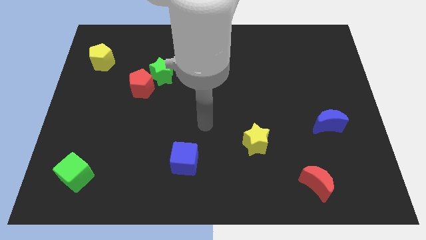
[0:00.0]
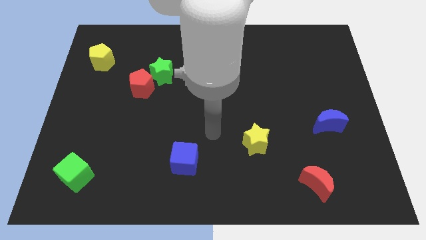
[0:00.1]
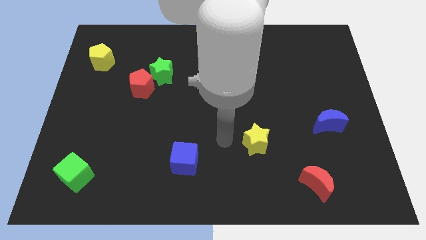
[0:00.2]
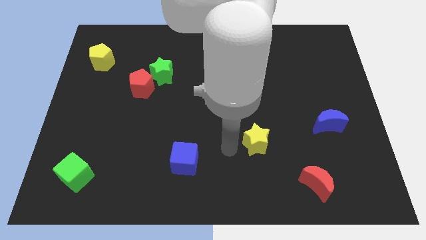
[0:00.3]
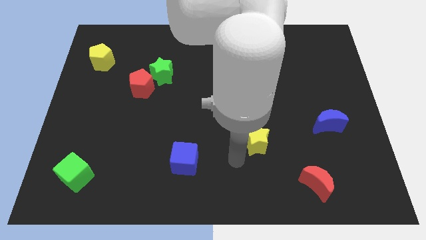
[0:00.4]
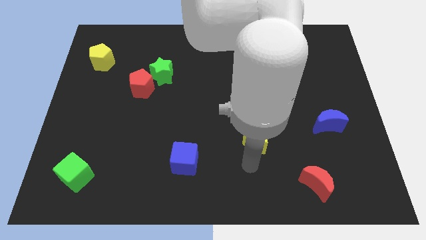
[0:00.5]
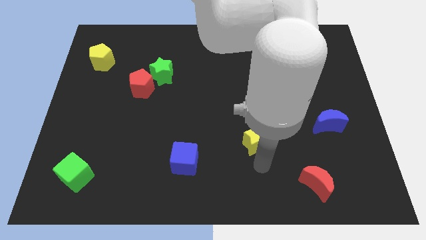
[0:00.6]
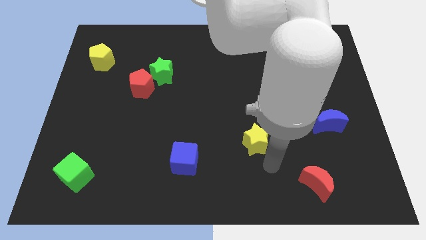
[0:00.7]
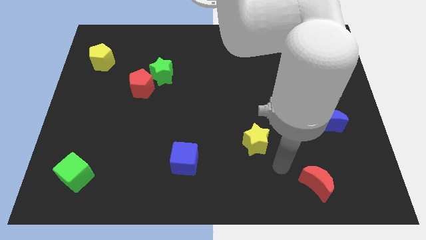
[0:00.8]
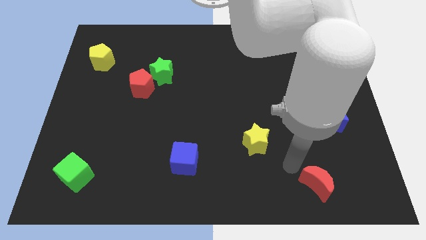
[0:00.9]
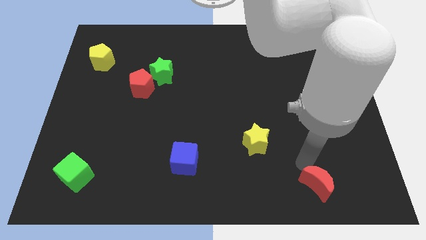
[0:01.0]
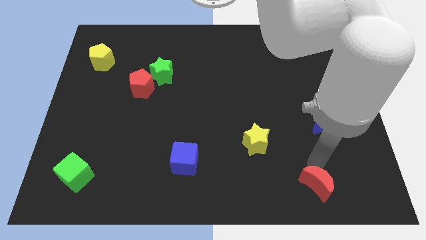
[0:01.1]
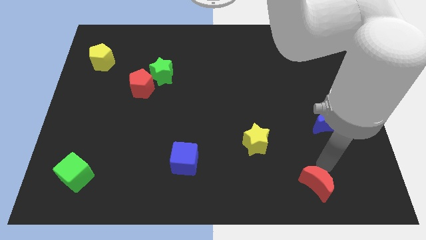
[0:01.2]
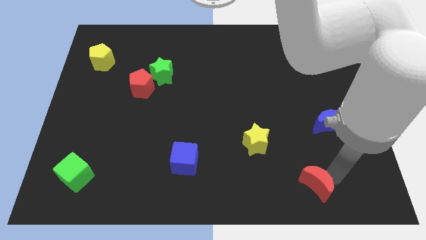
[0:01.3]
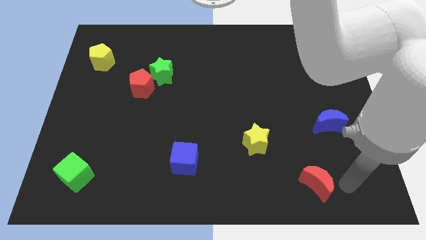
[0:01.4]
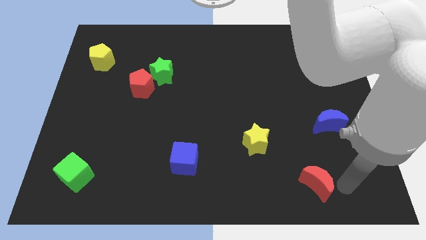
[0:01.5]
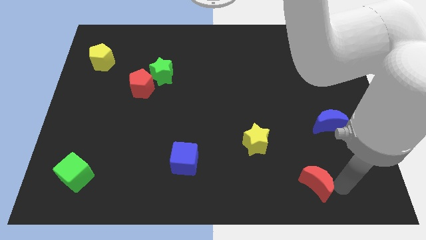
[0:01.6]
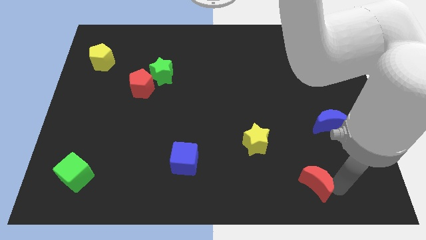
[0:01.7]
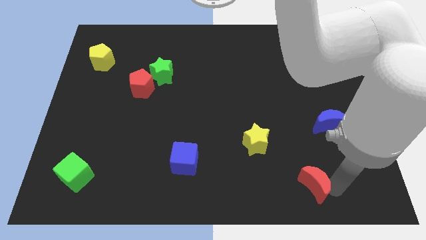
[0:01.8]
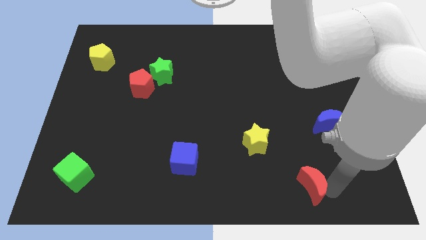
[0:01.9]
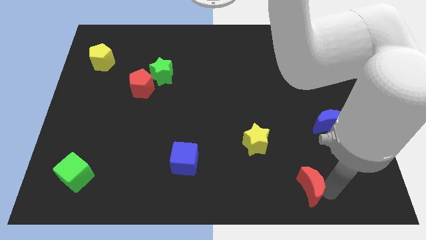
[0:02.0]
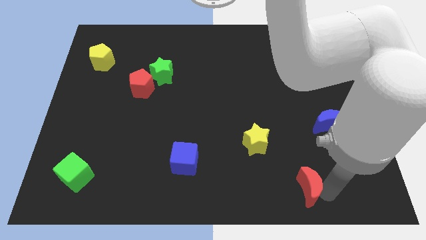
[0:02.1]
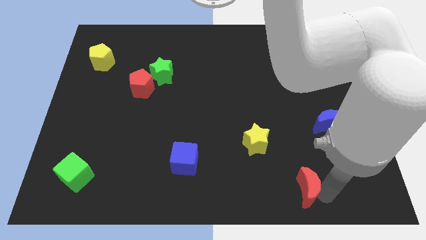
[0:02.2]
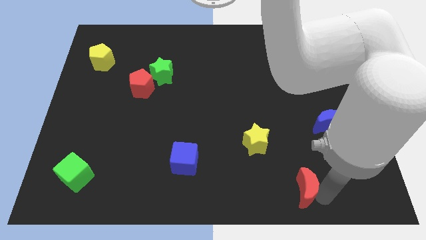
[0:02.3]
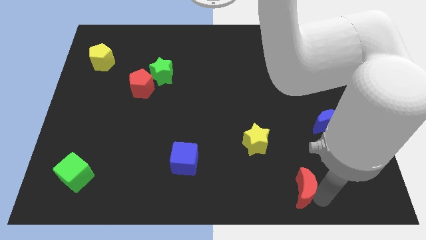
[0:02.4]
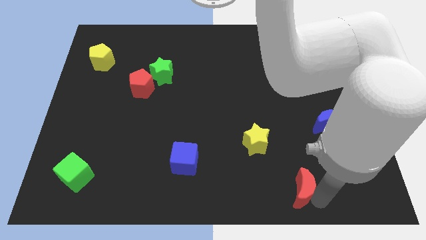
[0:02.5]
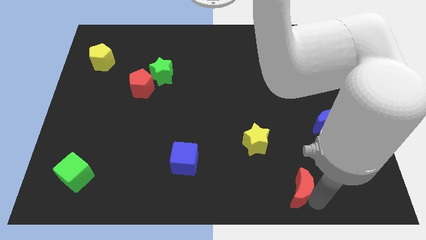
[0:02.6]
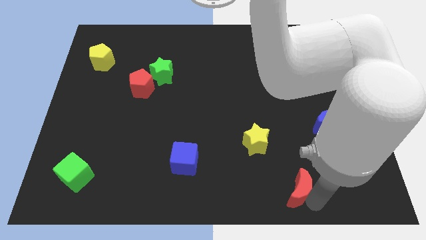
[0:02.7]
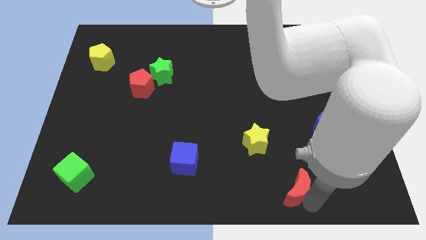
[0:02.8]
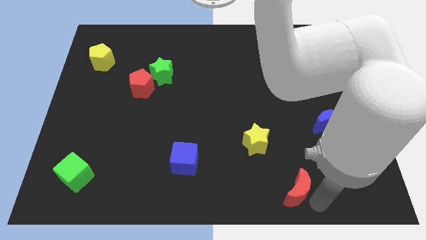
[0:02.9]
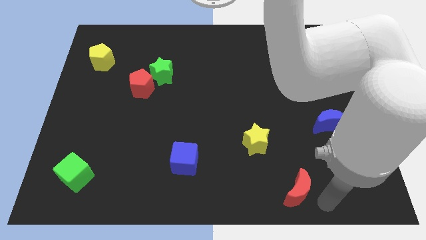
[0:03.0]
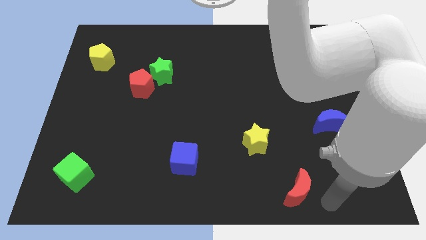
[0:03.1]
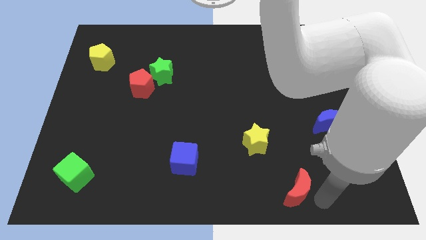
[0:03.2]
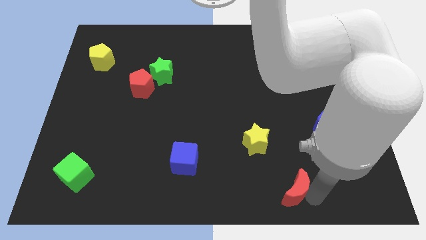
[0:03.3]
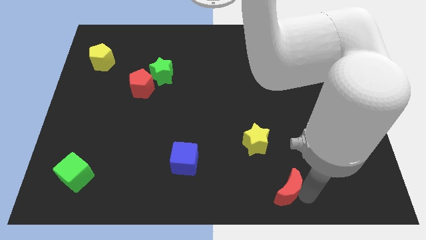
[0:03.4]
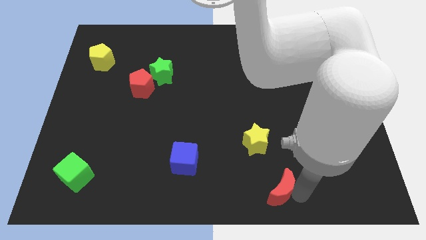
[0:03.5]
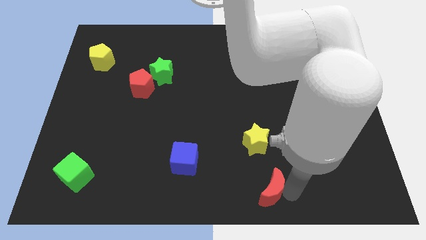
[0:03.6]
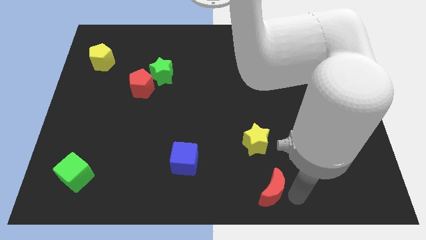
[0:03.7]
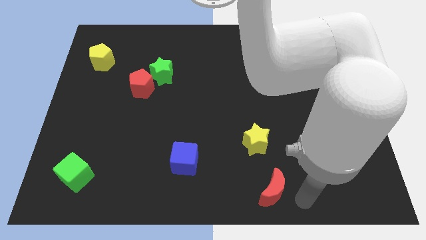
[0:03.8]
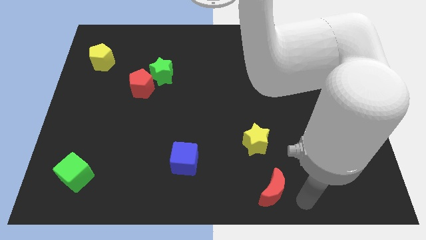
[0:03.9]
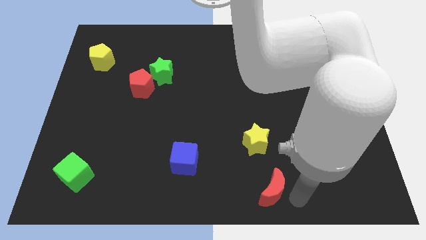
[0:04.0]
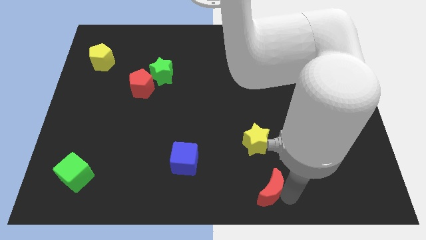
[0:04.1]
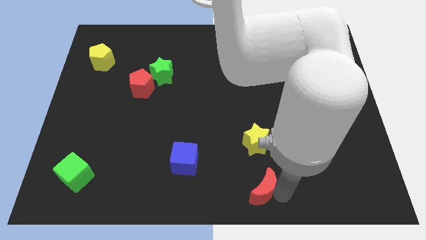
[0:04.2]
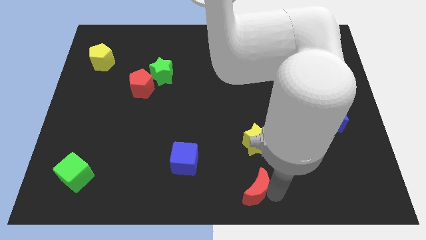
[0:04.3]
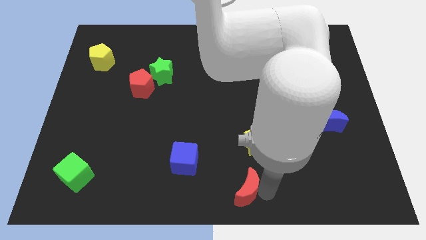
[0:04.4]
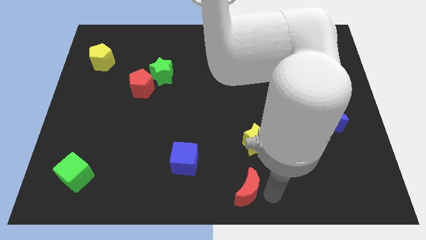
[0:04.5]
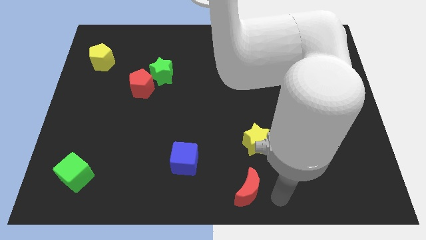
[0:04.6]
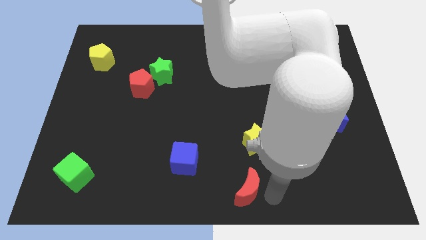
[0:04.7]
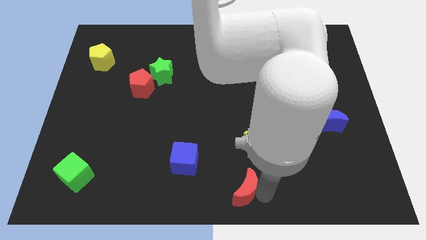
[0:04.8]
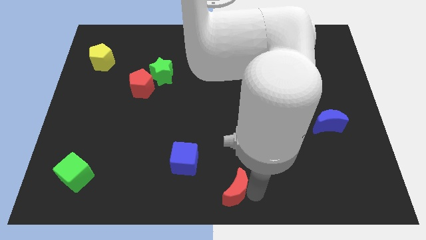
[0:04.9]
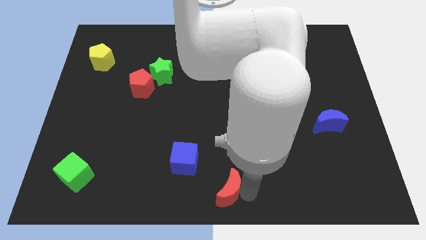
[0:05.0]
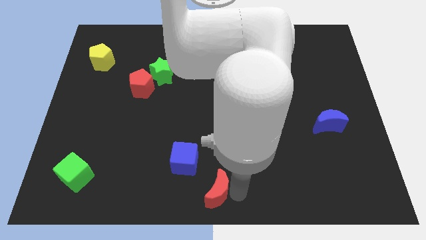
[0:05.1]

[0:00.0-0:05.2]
push the red moon left

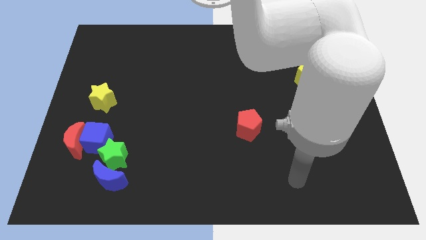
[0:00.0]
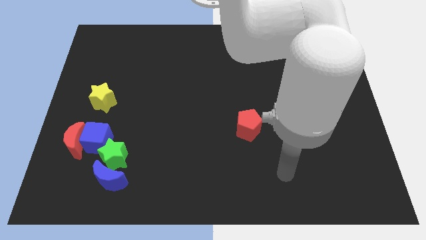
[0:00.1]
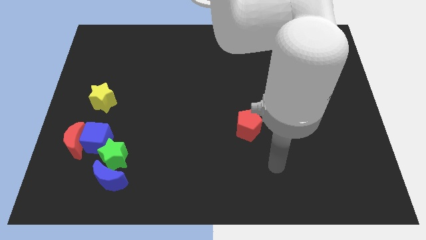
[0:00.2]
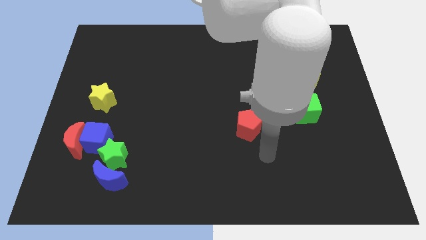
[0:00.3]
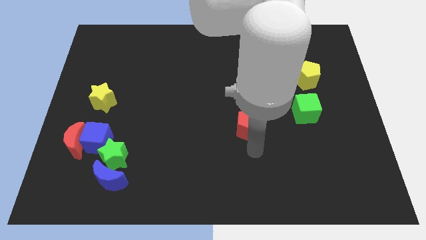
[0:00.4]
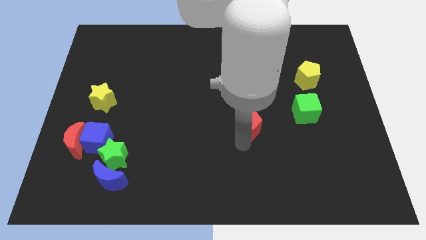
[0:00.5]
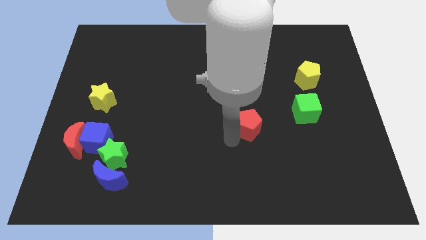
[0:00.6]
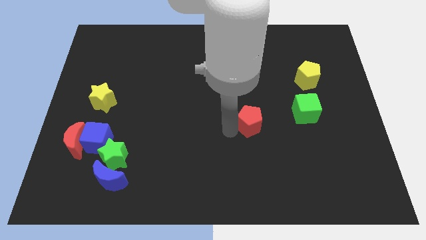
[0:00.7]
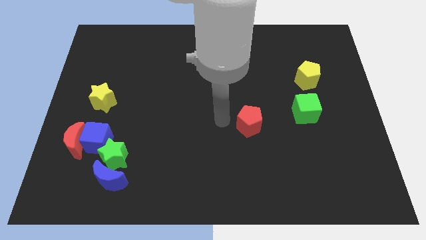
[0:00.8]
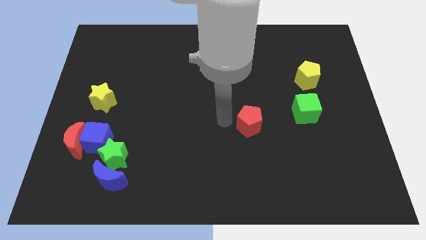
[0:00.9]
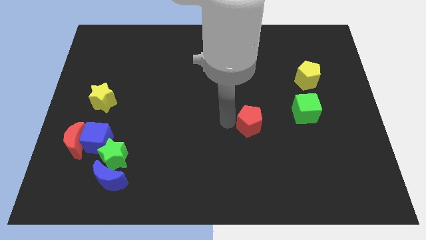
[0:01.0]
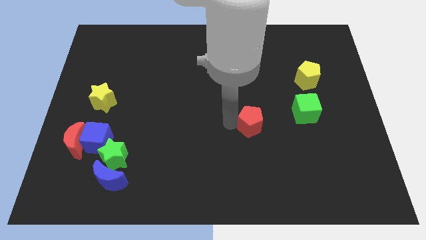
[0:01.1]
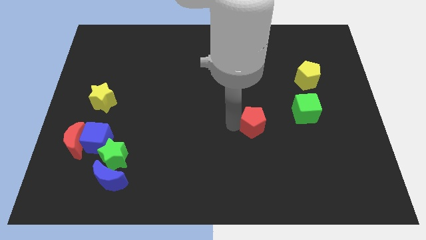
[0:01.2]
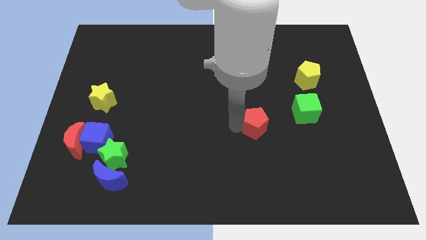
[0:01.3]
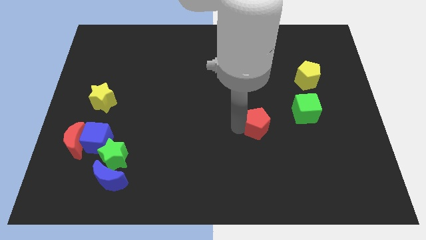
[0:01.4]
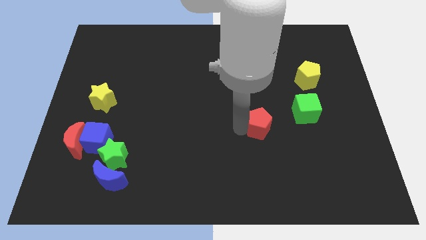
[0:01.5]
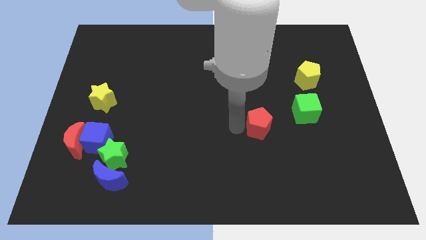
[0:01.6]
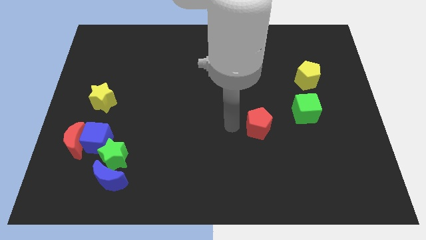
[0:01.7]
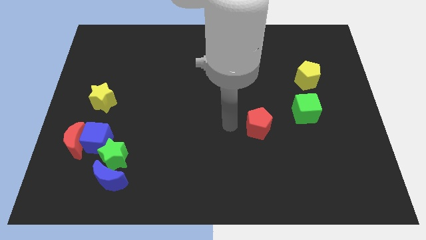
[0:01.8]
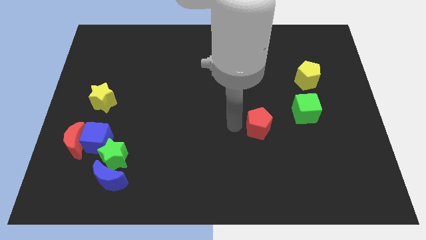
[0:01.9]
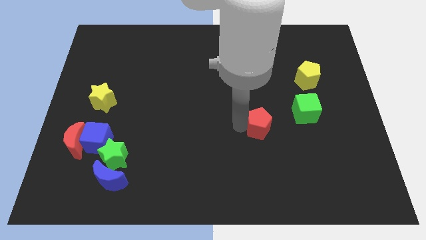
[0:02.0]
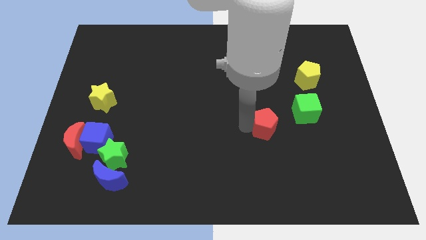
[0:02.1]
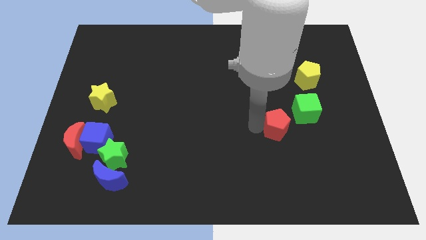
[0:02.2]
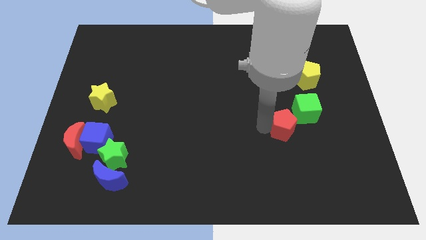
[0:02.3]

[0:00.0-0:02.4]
slide the red pentagon slightly right

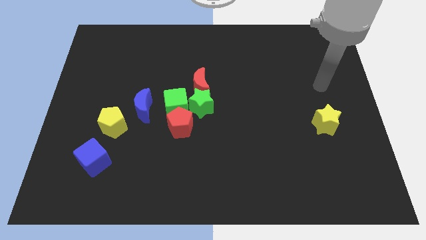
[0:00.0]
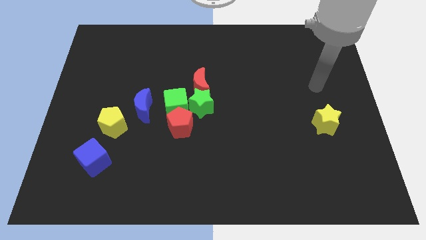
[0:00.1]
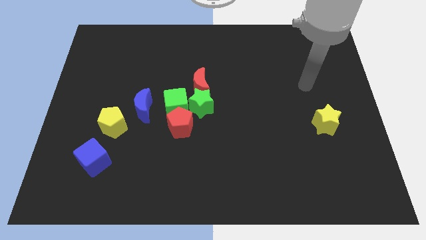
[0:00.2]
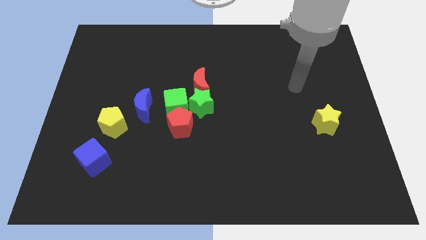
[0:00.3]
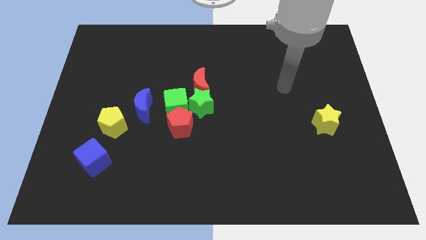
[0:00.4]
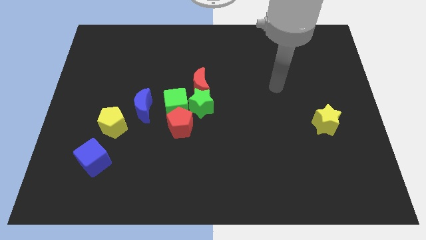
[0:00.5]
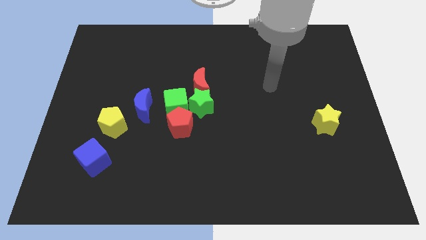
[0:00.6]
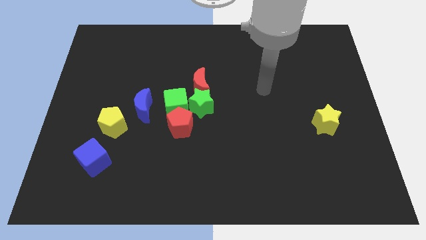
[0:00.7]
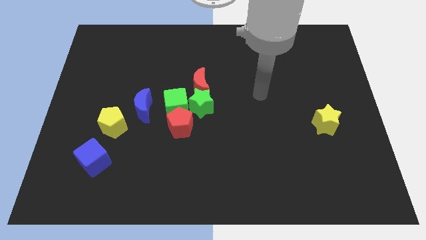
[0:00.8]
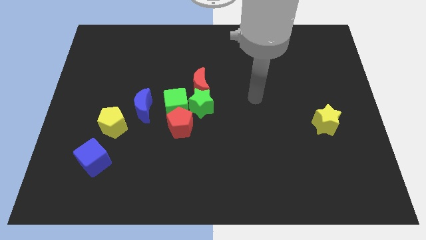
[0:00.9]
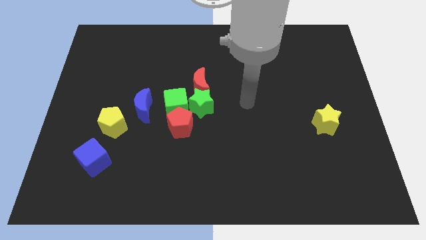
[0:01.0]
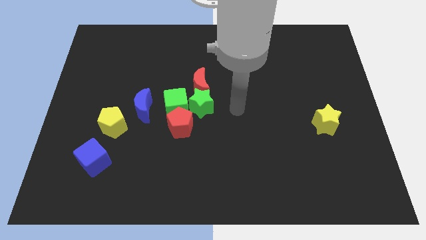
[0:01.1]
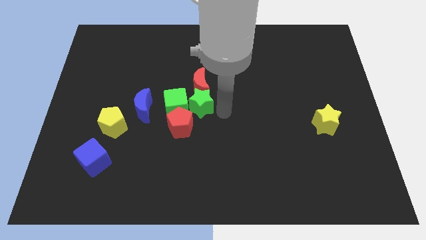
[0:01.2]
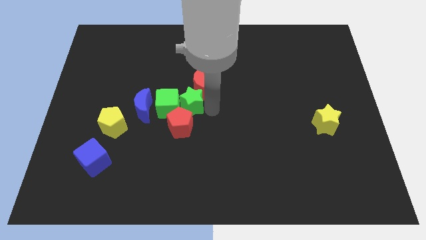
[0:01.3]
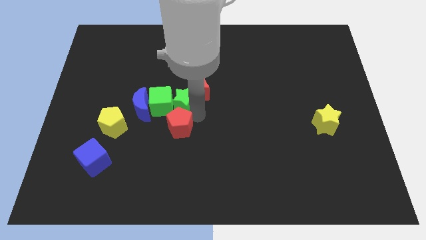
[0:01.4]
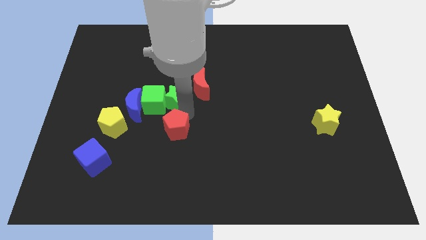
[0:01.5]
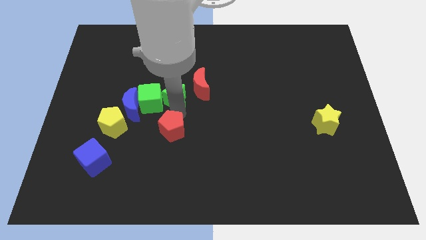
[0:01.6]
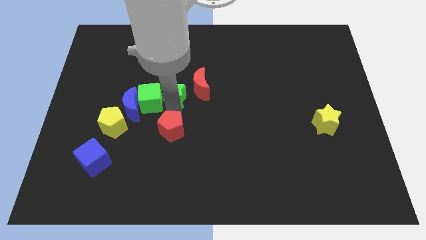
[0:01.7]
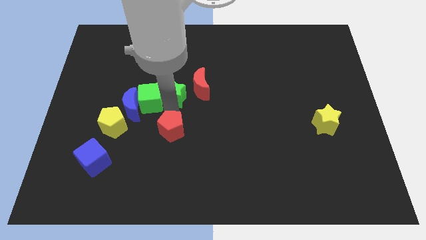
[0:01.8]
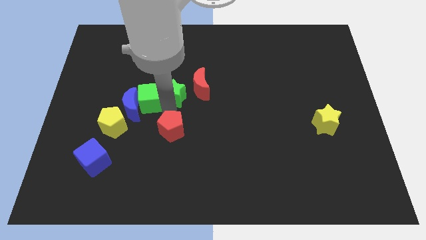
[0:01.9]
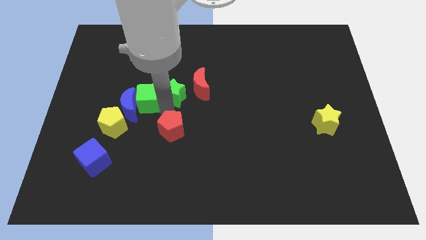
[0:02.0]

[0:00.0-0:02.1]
move the green cube left a bit
